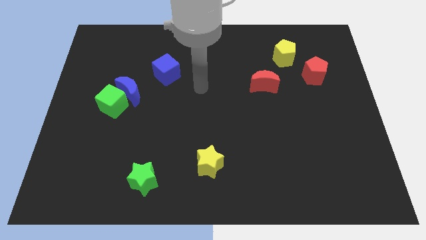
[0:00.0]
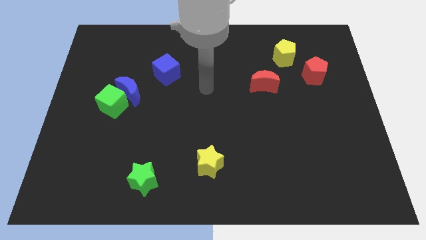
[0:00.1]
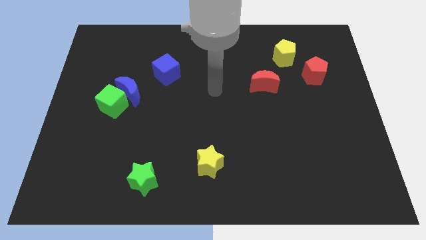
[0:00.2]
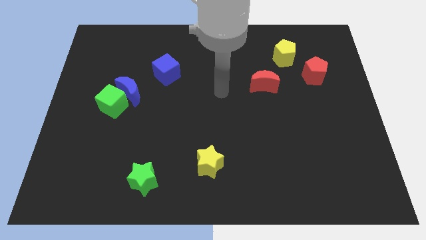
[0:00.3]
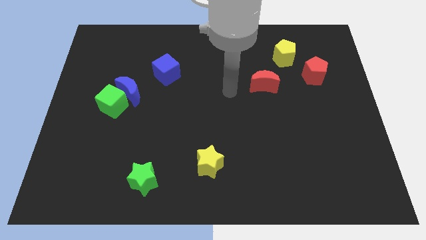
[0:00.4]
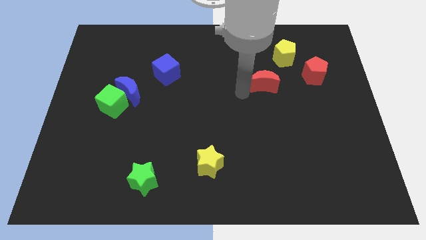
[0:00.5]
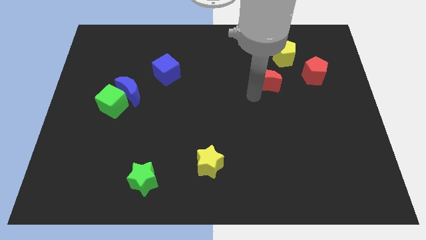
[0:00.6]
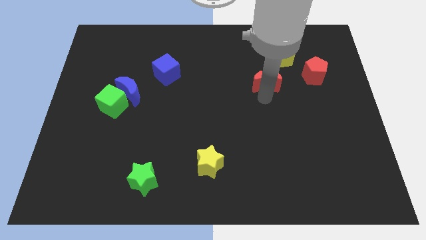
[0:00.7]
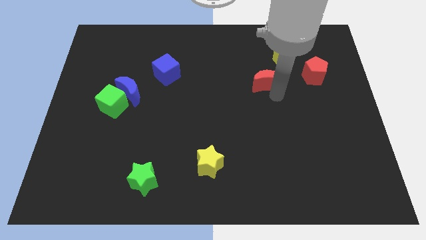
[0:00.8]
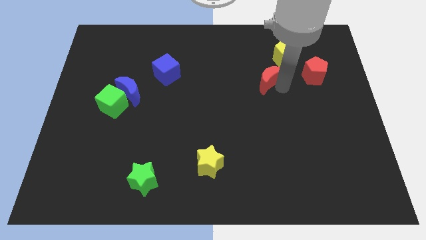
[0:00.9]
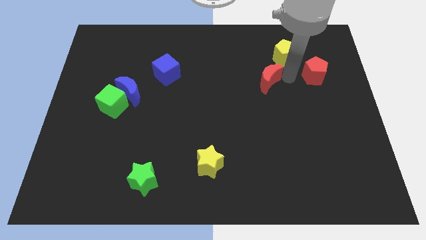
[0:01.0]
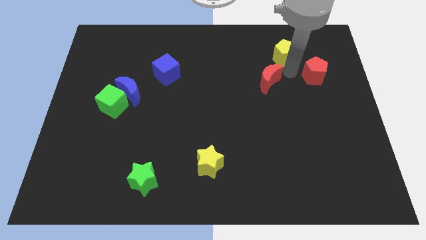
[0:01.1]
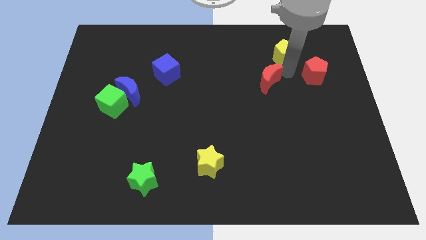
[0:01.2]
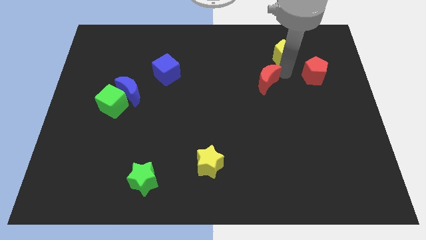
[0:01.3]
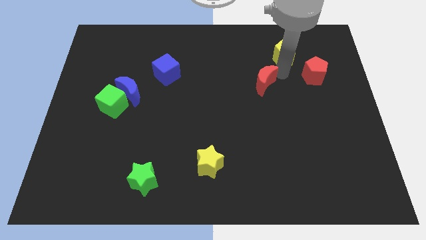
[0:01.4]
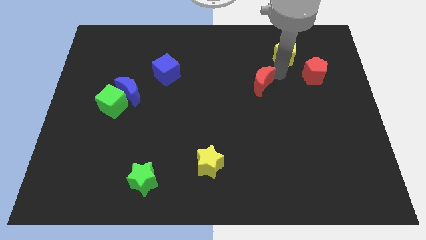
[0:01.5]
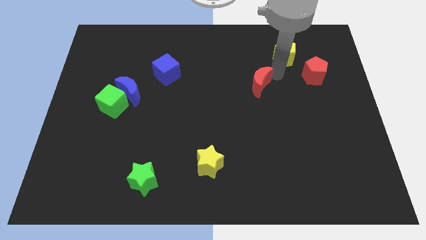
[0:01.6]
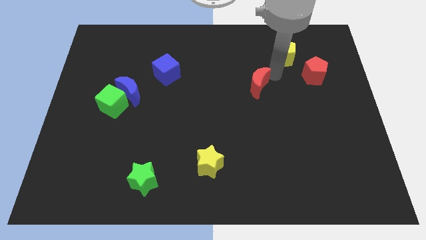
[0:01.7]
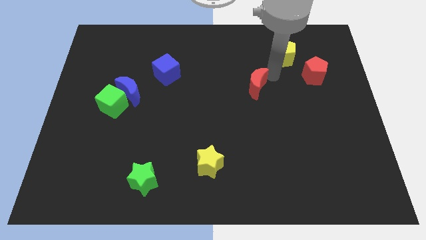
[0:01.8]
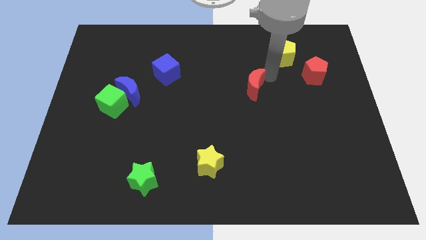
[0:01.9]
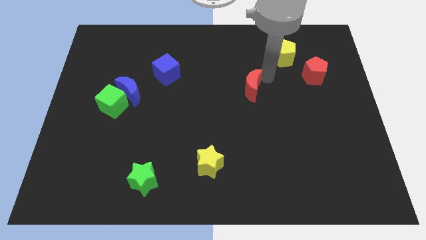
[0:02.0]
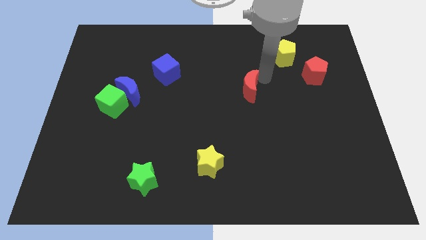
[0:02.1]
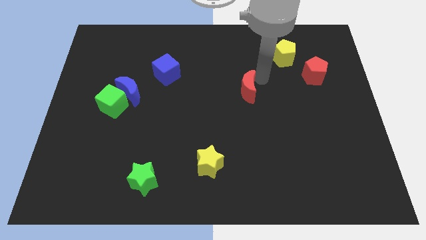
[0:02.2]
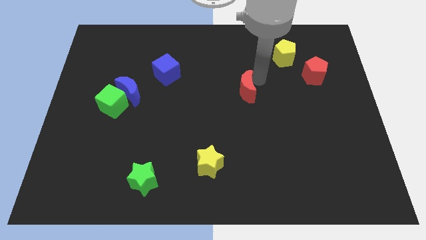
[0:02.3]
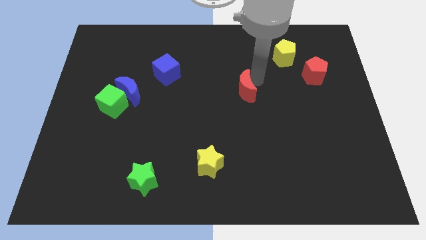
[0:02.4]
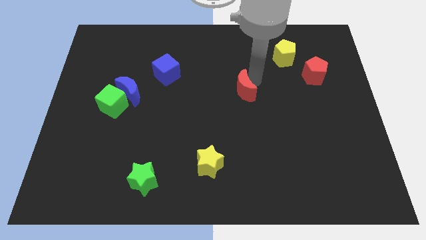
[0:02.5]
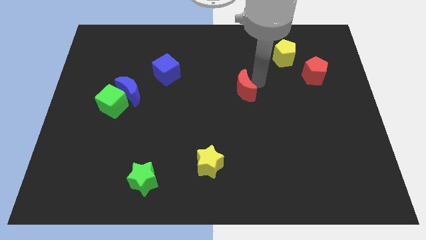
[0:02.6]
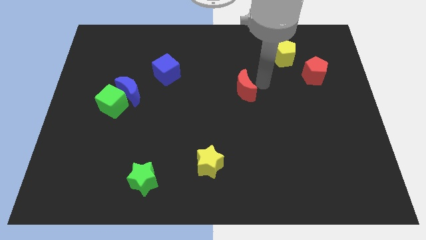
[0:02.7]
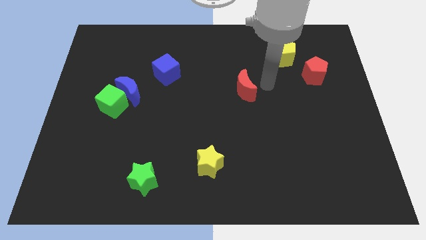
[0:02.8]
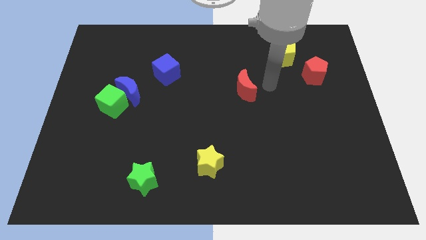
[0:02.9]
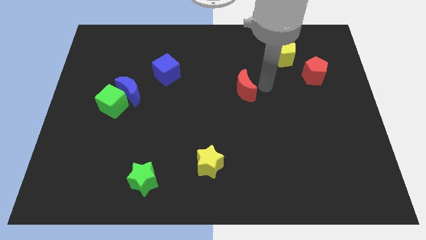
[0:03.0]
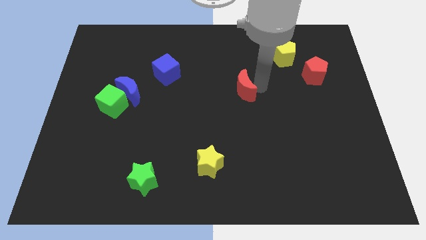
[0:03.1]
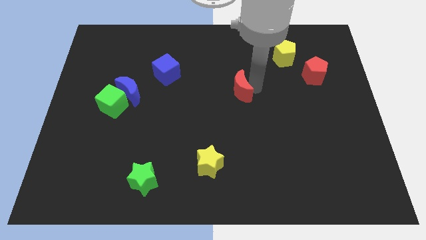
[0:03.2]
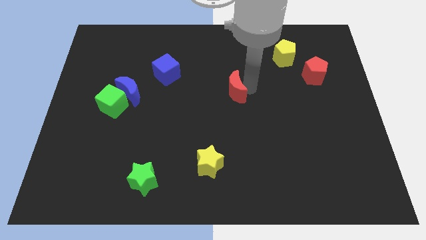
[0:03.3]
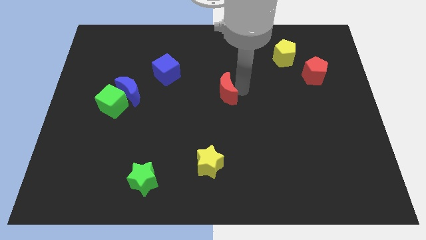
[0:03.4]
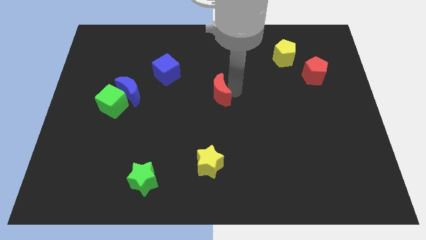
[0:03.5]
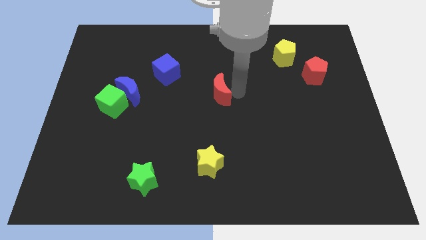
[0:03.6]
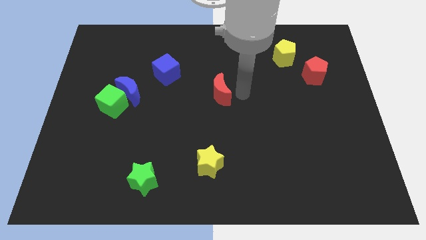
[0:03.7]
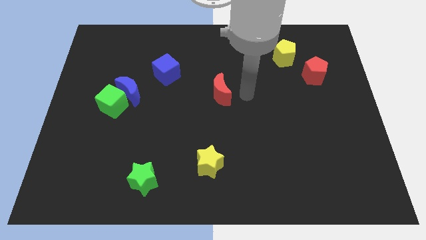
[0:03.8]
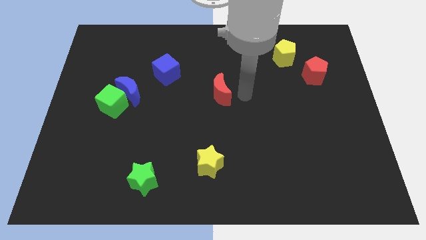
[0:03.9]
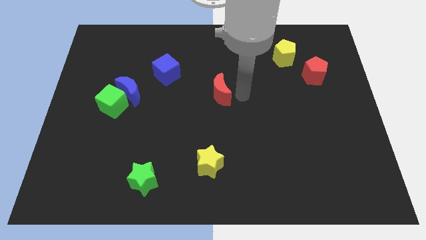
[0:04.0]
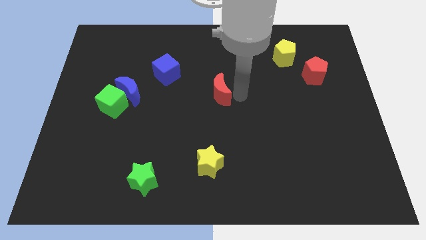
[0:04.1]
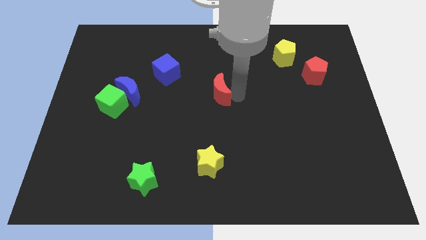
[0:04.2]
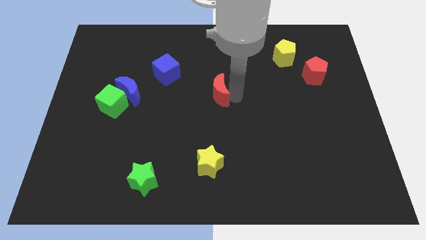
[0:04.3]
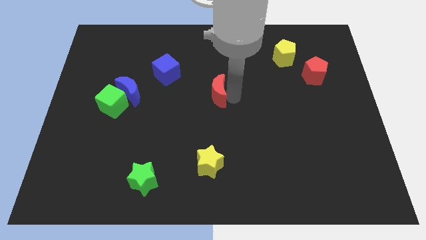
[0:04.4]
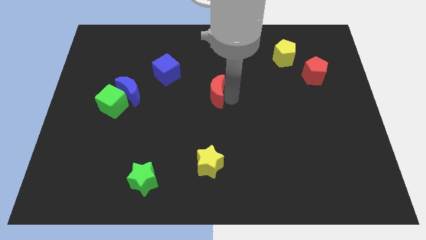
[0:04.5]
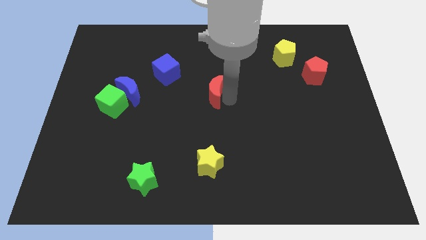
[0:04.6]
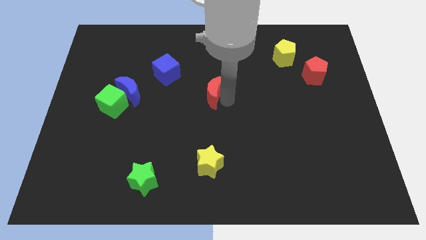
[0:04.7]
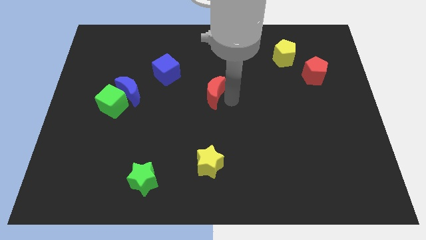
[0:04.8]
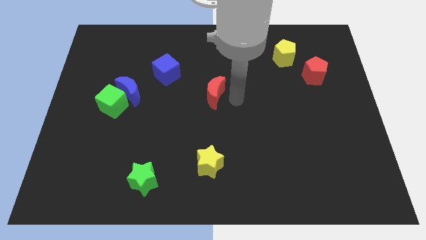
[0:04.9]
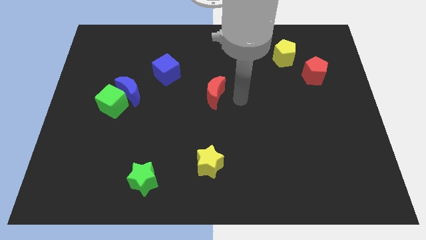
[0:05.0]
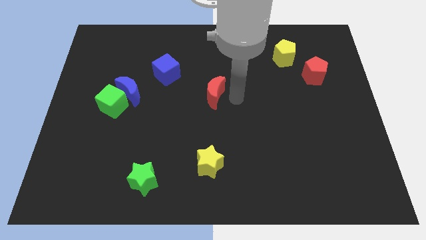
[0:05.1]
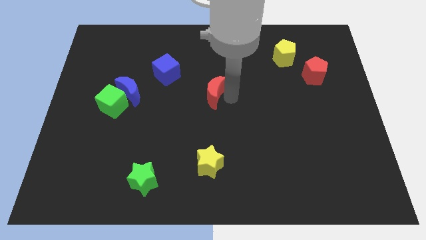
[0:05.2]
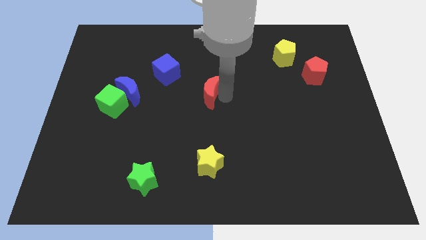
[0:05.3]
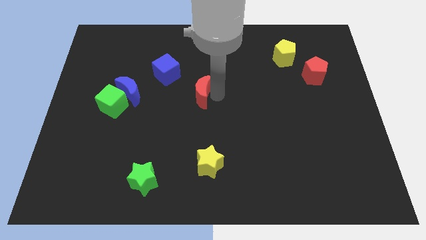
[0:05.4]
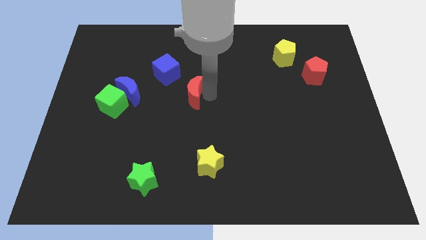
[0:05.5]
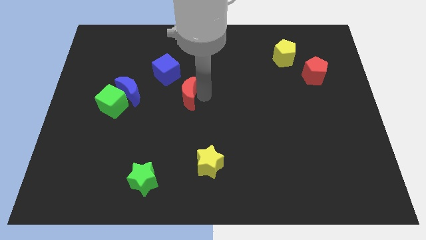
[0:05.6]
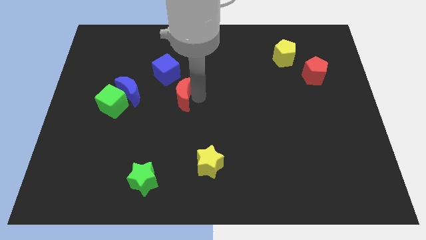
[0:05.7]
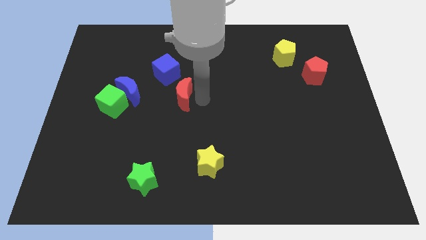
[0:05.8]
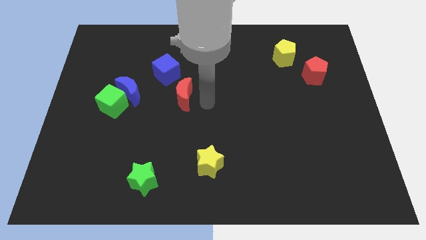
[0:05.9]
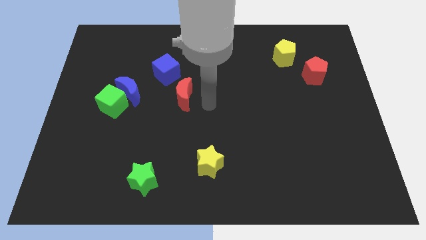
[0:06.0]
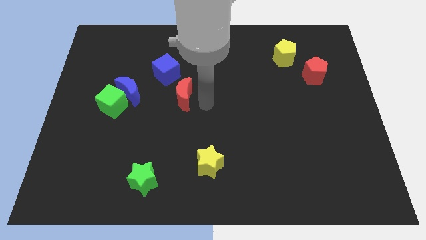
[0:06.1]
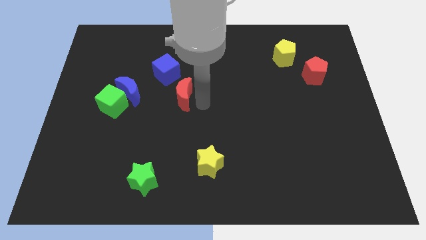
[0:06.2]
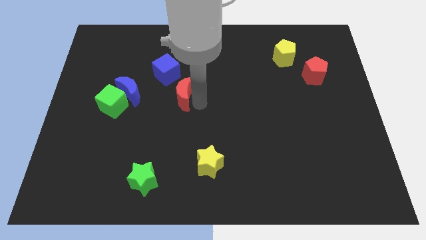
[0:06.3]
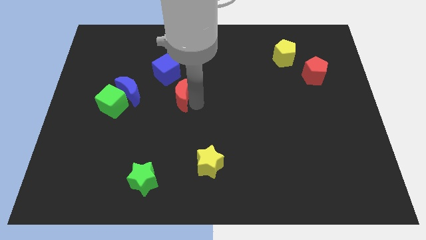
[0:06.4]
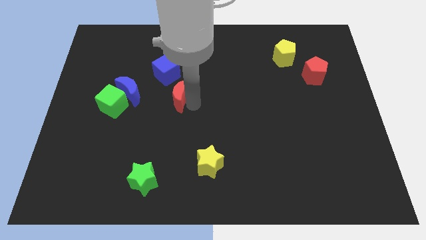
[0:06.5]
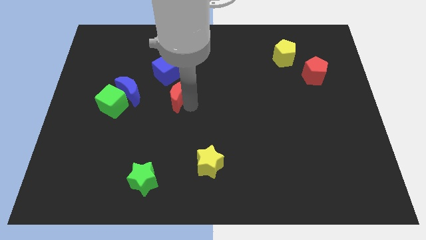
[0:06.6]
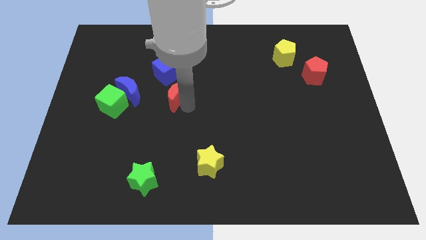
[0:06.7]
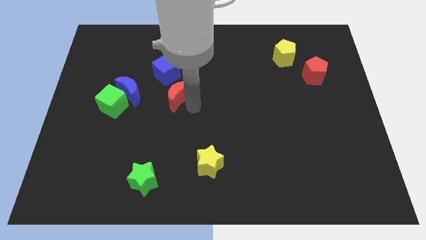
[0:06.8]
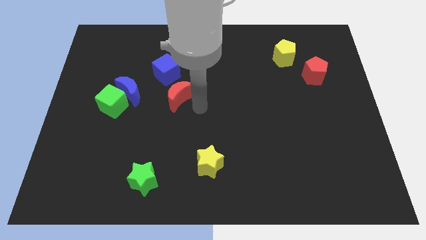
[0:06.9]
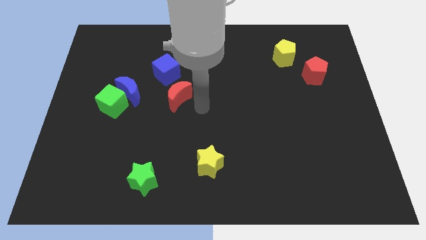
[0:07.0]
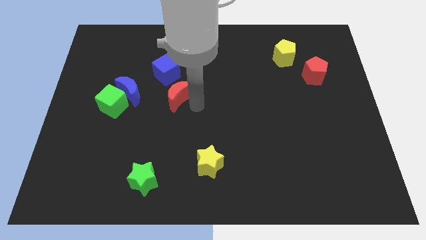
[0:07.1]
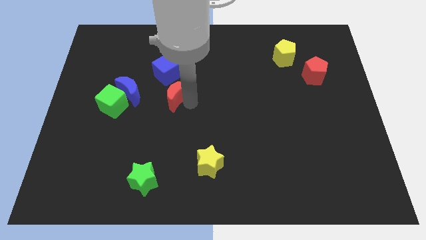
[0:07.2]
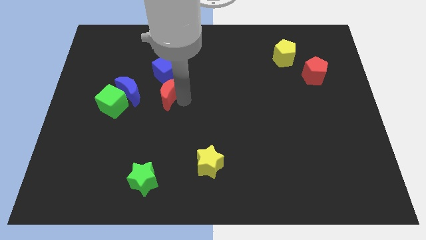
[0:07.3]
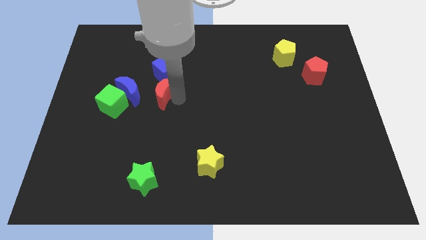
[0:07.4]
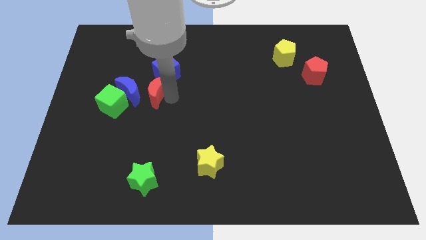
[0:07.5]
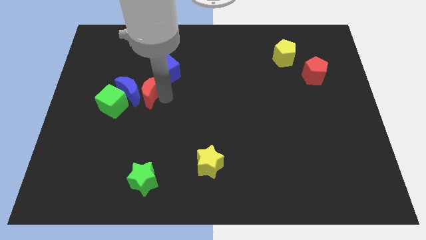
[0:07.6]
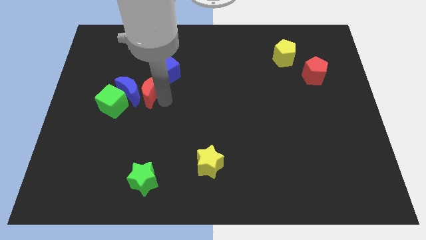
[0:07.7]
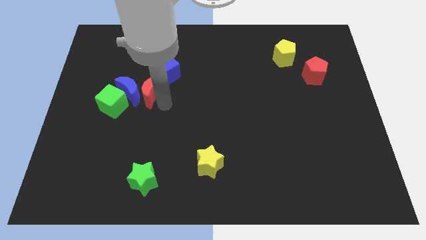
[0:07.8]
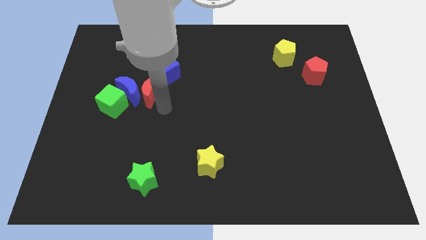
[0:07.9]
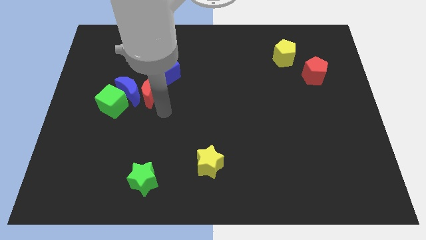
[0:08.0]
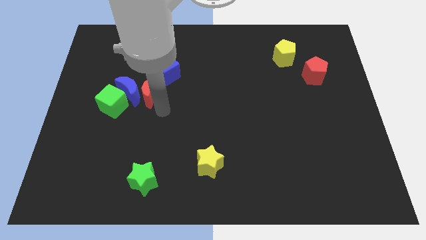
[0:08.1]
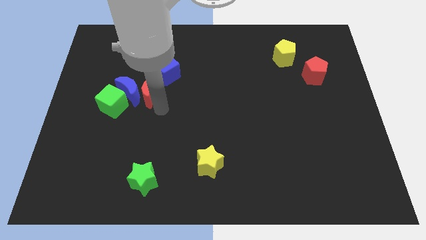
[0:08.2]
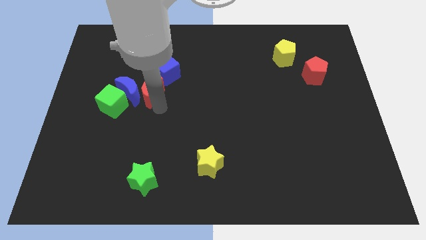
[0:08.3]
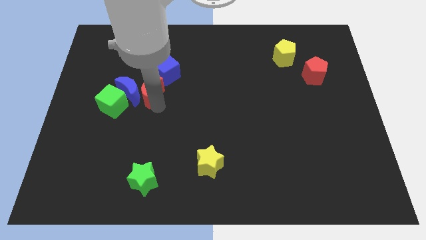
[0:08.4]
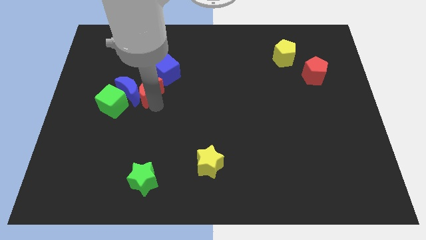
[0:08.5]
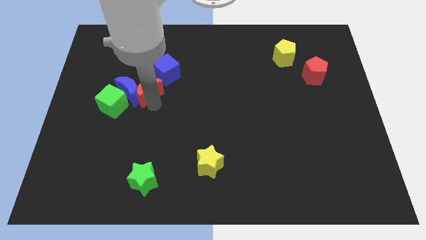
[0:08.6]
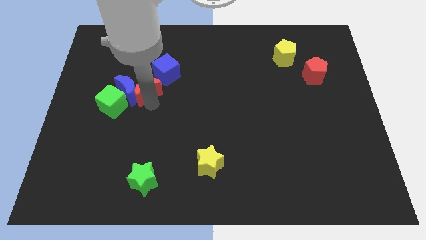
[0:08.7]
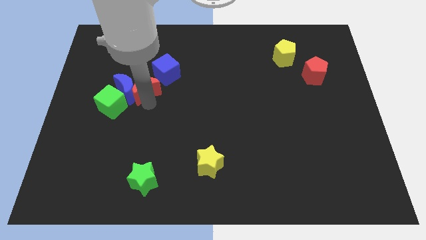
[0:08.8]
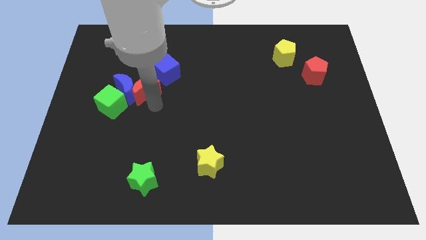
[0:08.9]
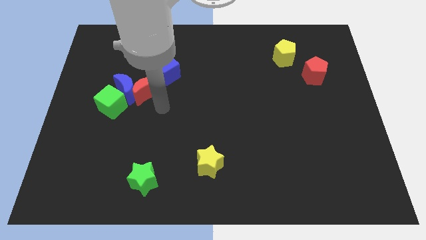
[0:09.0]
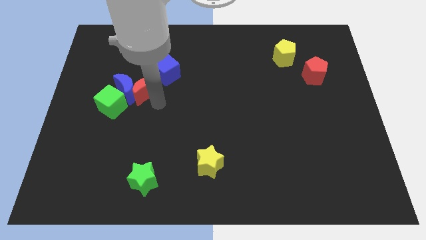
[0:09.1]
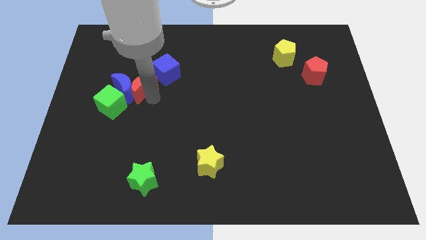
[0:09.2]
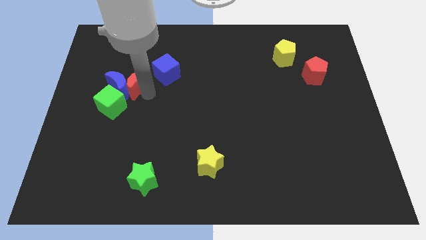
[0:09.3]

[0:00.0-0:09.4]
slide the red moon to the left side of the blue cube
